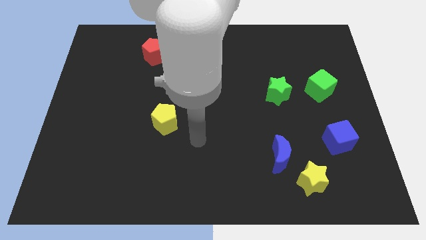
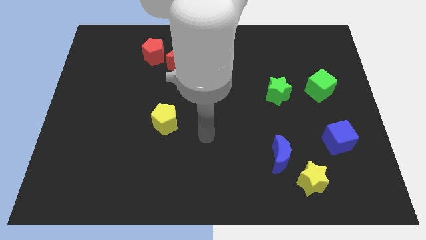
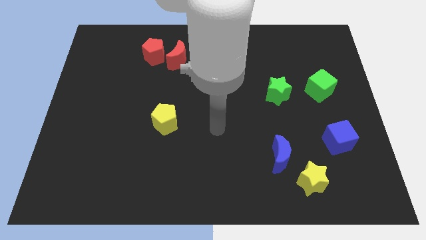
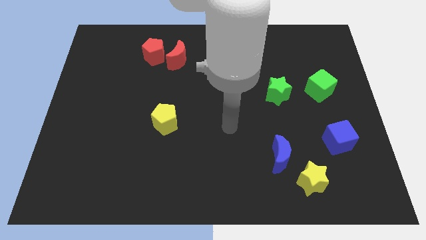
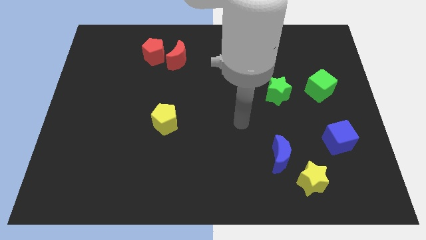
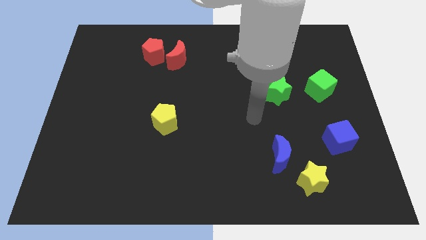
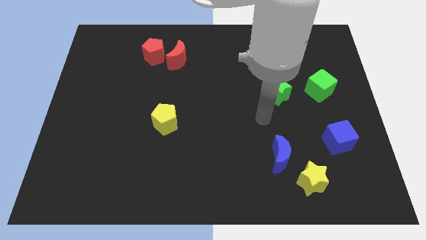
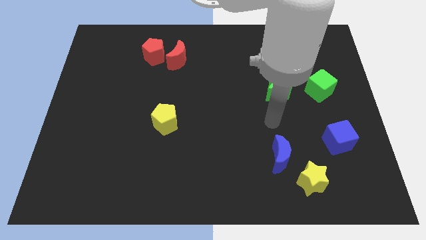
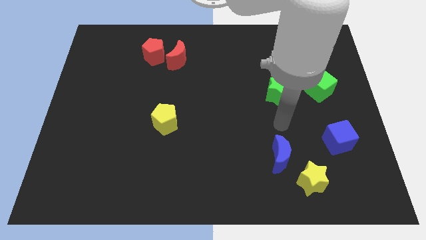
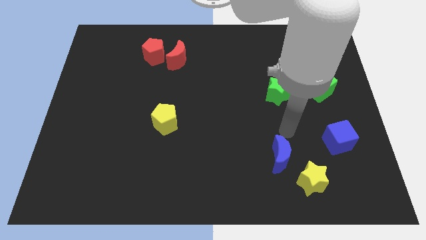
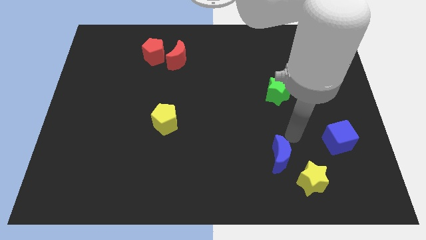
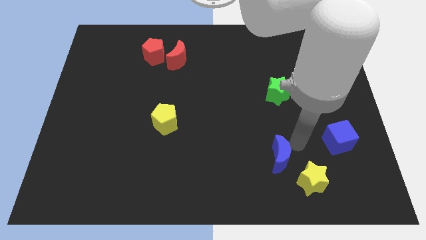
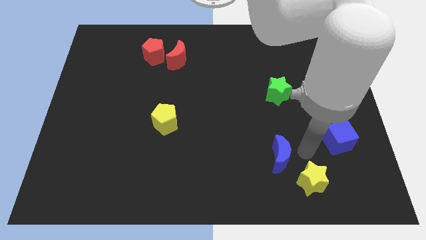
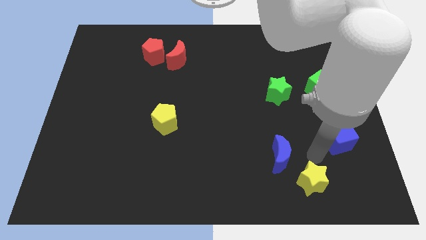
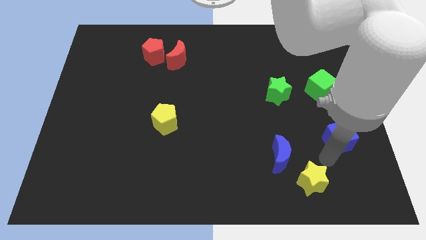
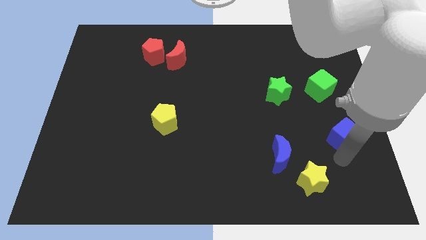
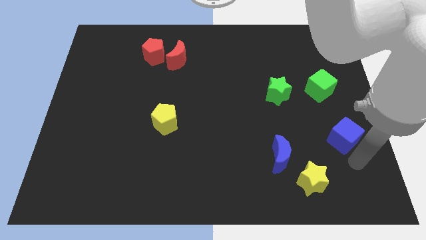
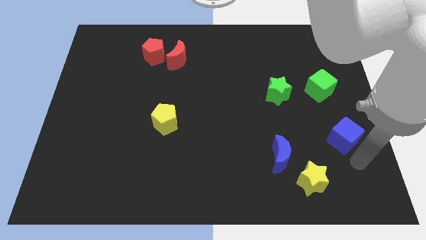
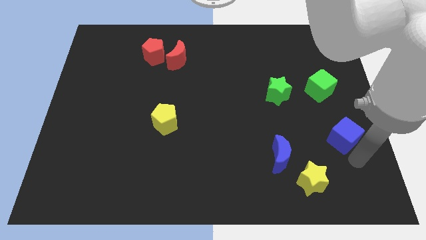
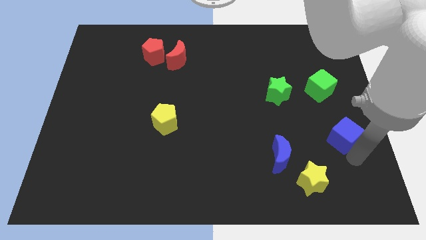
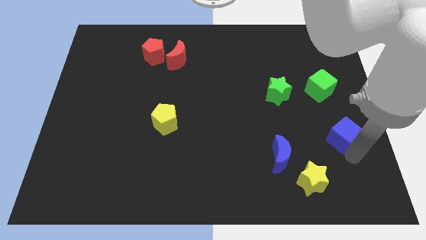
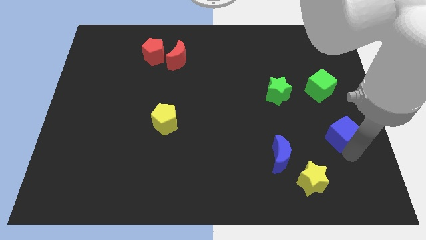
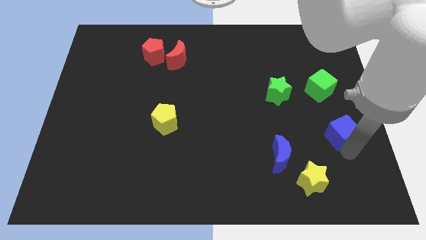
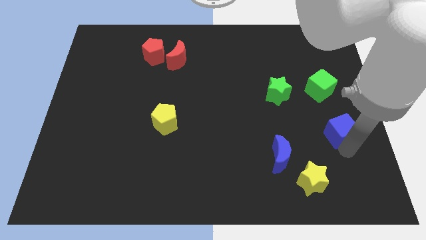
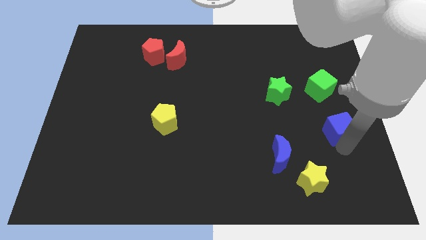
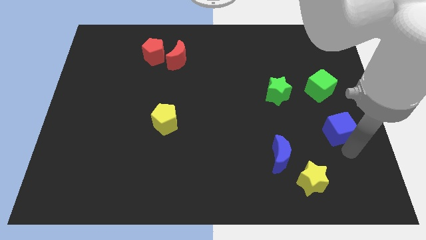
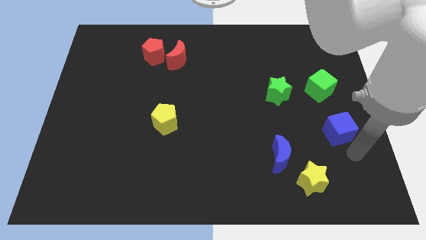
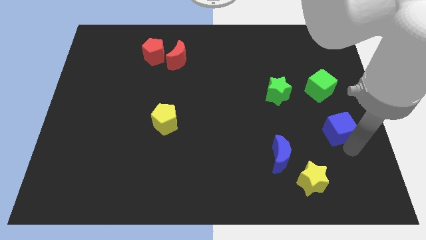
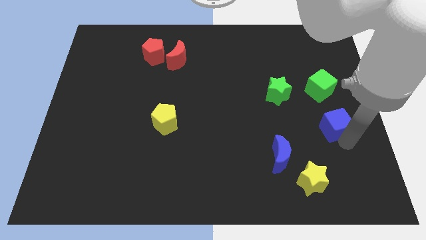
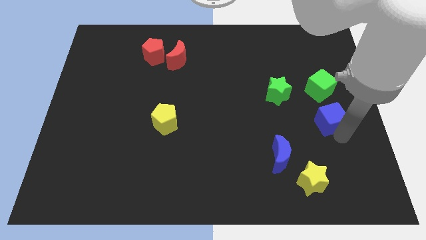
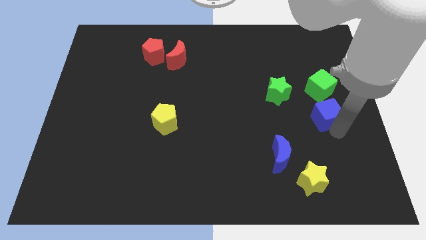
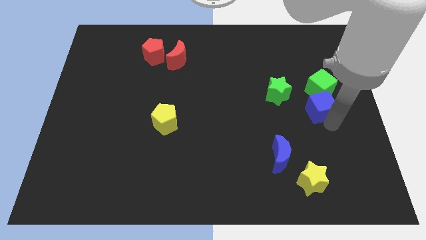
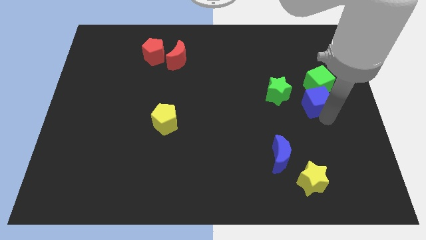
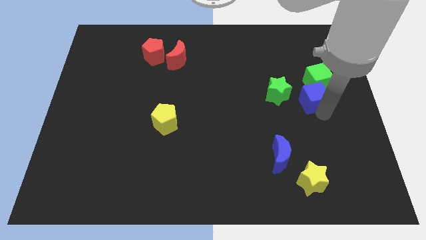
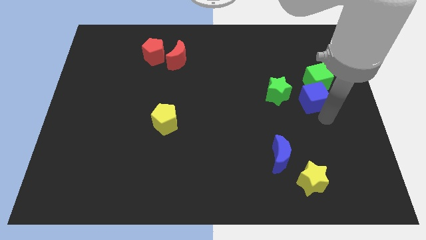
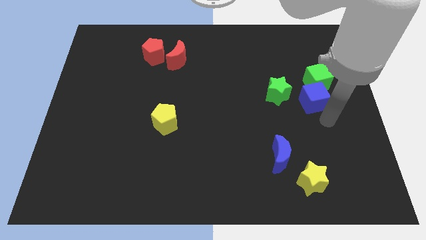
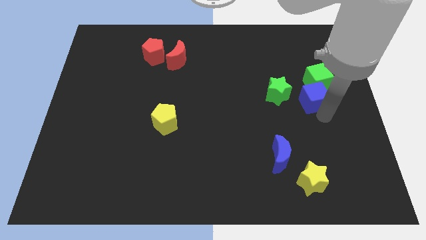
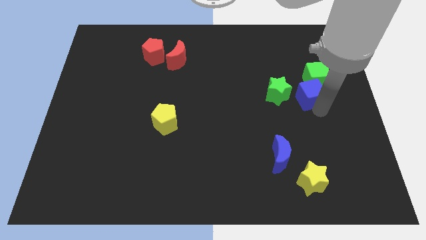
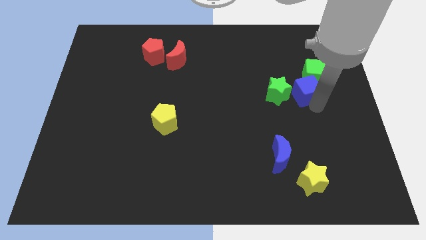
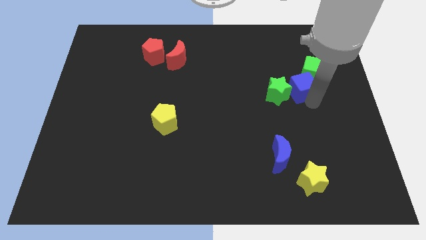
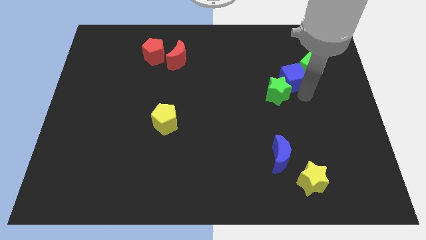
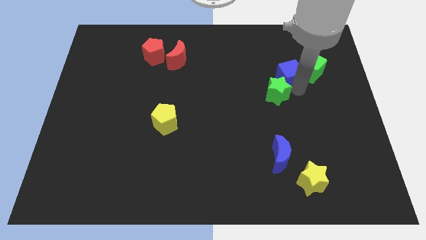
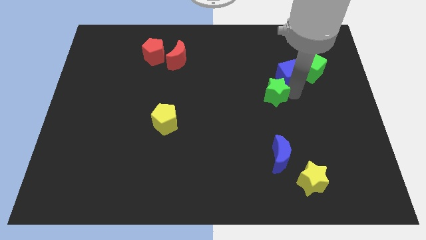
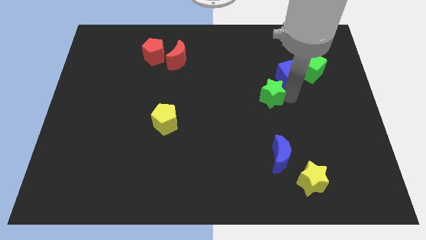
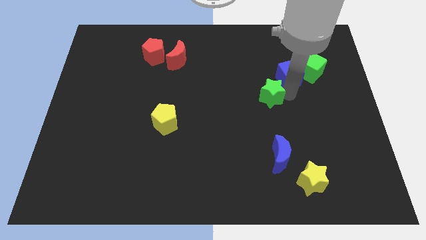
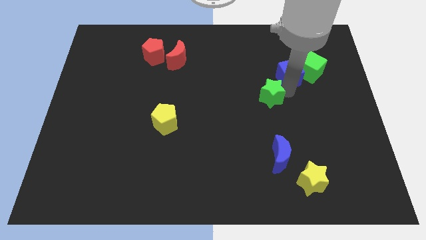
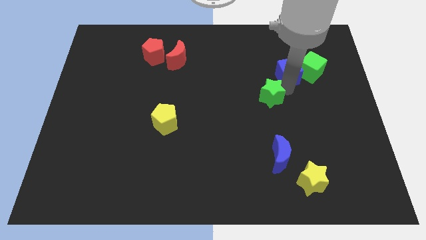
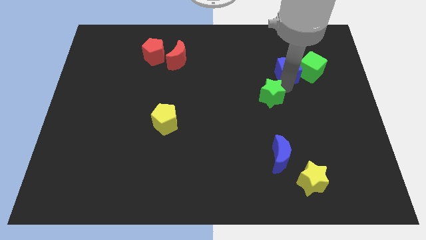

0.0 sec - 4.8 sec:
push the blue cube to the top left of the green cube

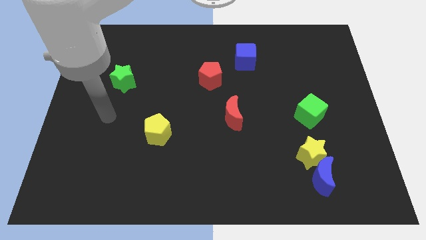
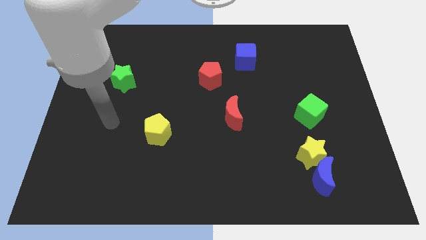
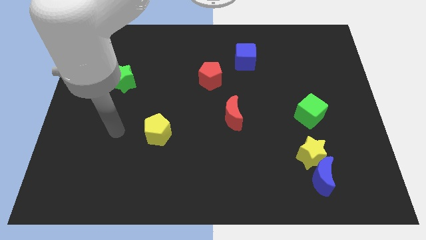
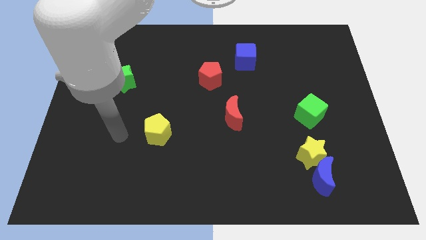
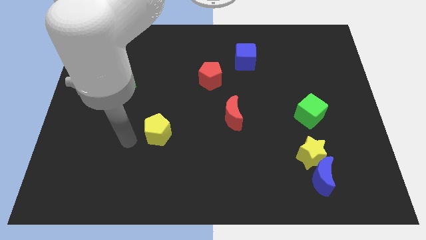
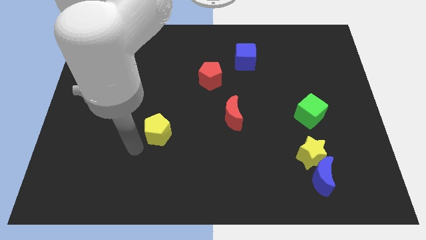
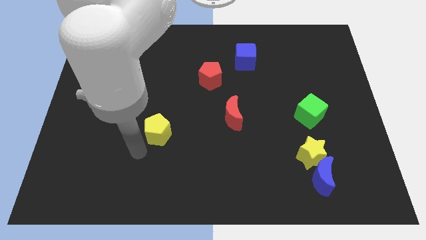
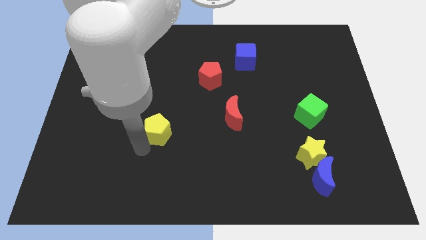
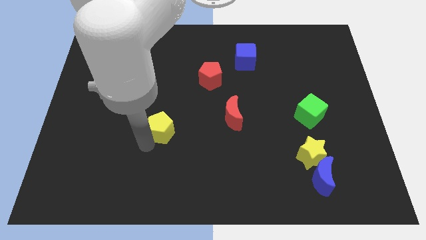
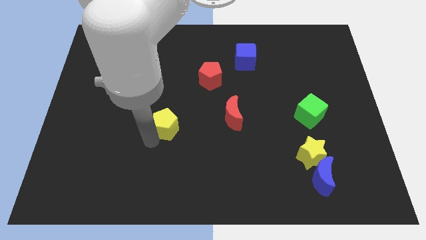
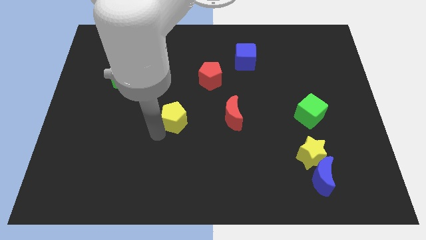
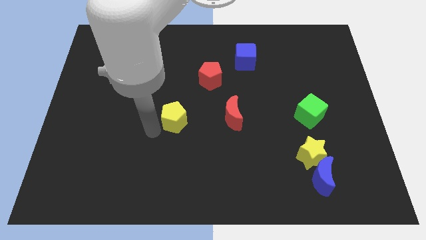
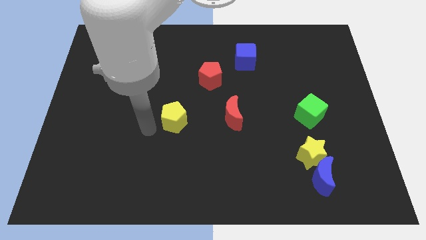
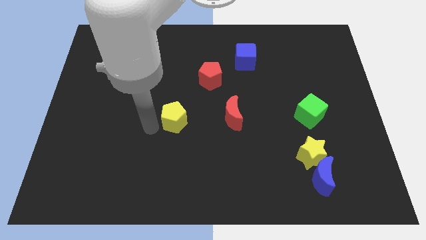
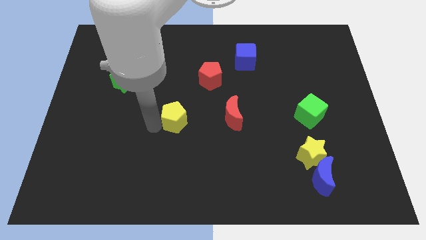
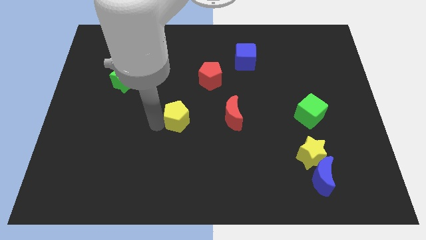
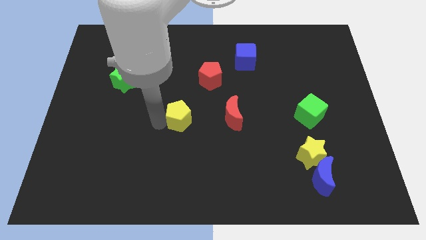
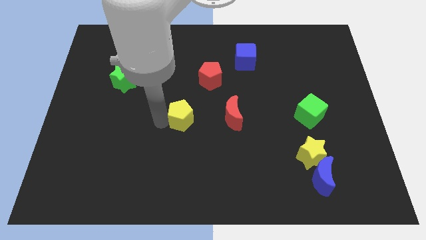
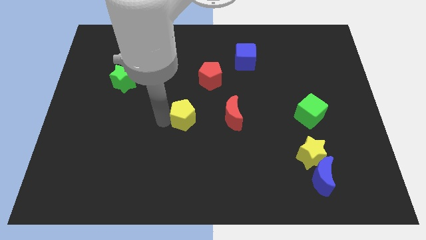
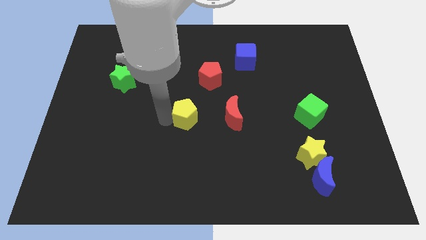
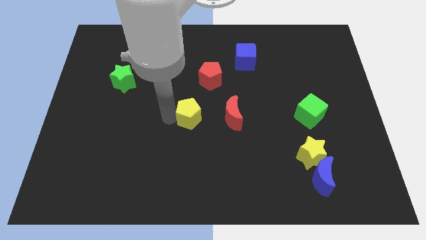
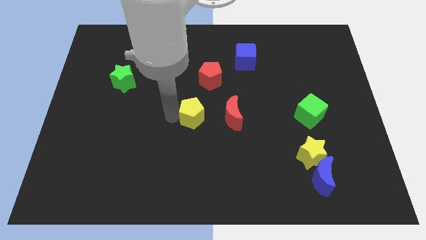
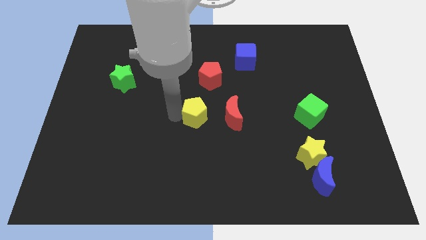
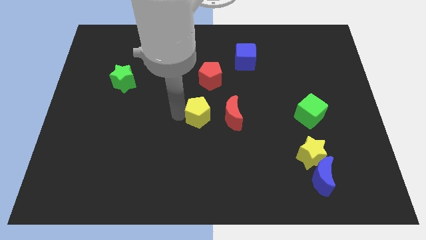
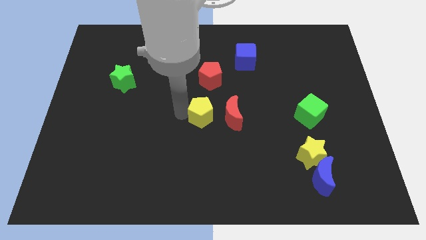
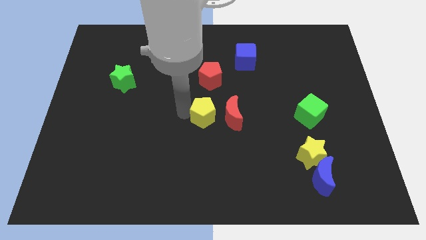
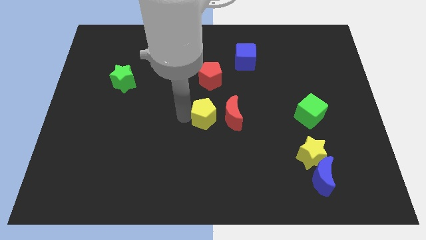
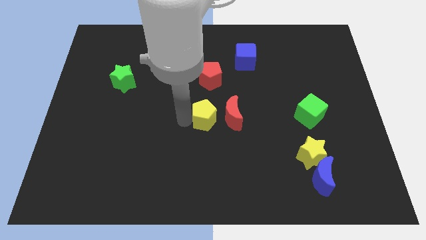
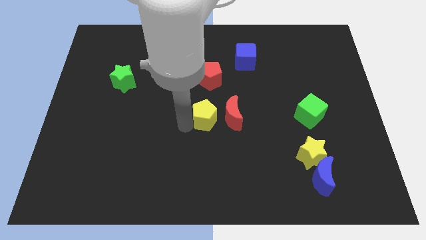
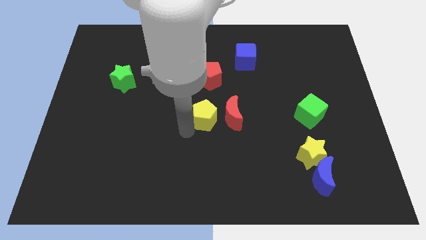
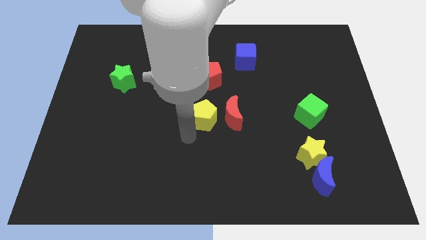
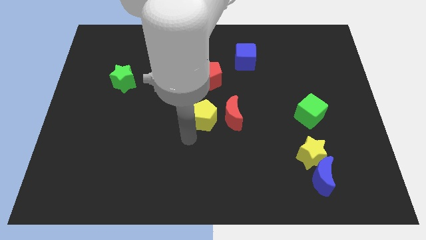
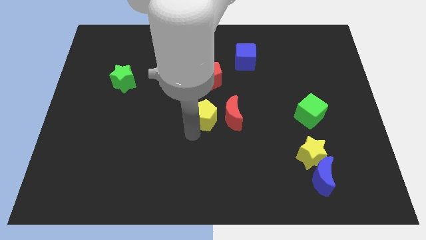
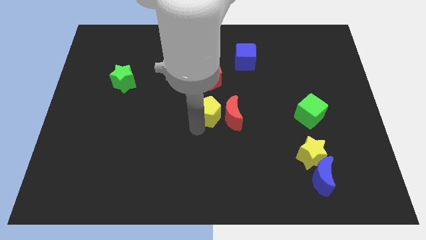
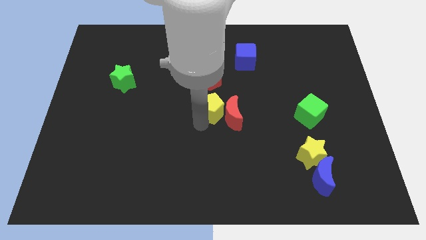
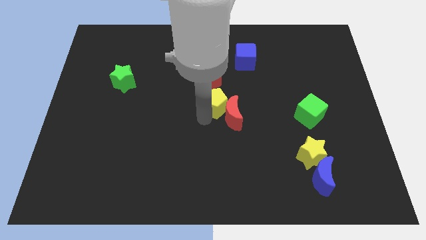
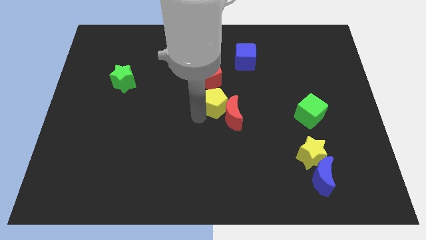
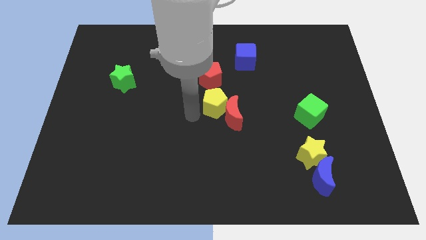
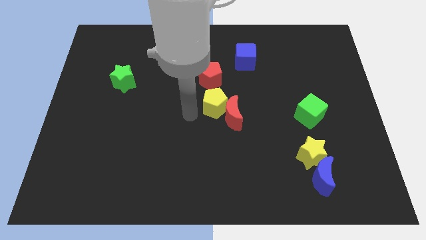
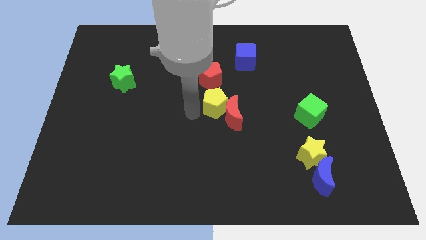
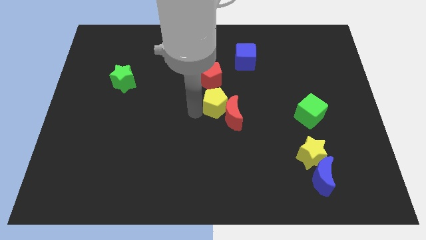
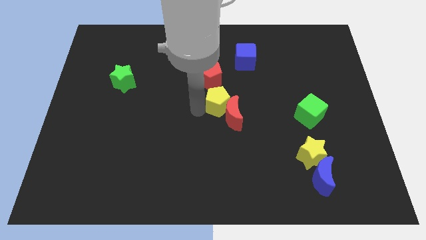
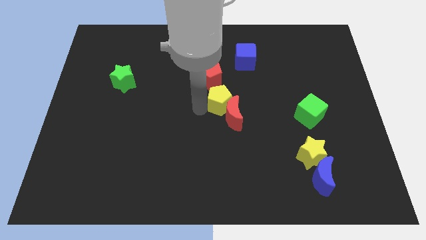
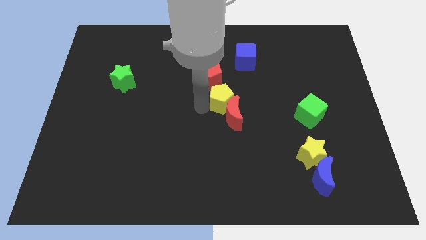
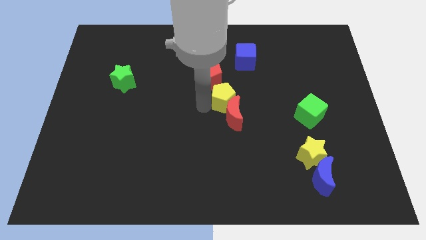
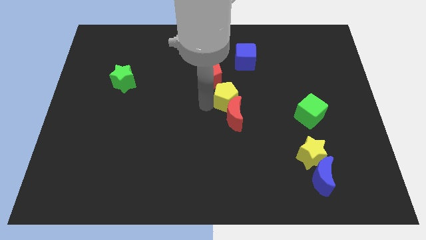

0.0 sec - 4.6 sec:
push the yellow pentagon diagonally up and to the right of the red moon
